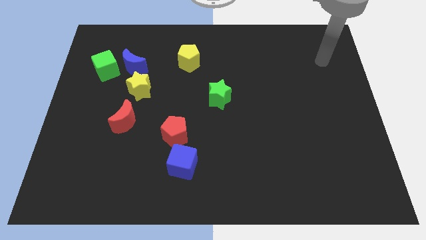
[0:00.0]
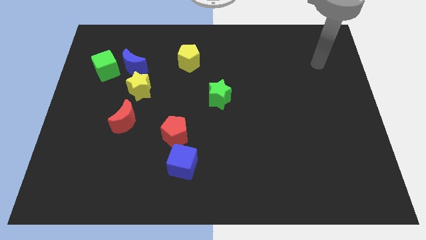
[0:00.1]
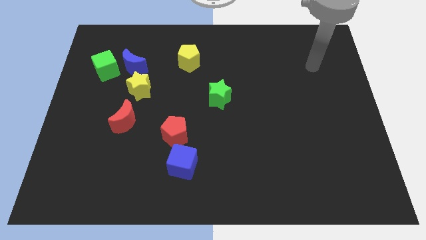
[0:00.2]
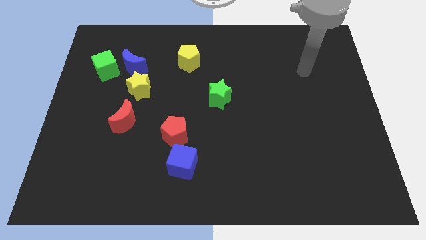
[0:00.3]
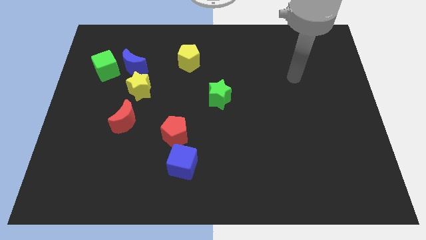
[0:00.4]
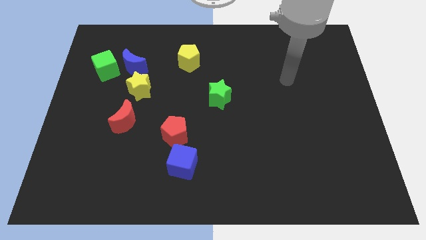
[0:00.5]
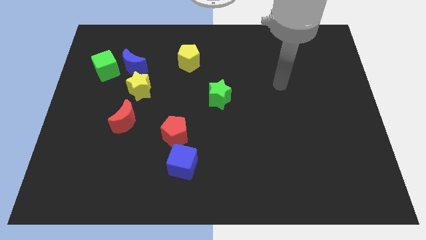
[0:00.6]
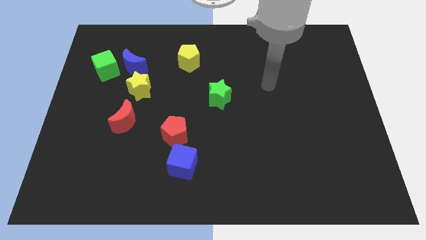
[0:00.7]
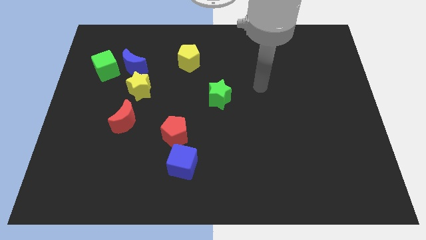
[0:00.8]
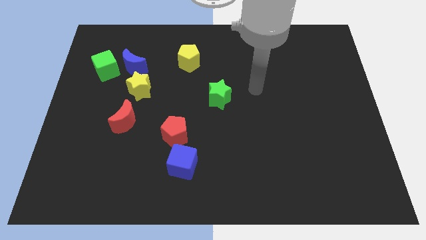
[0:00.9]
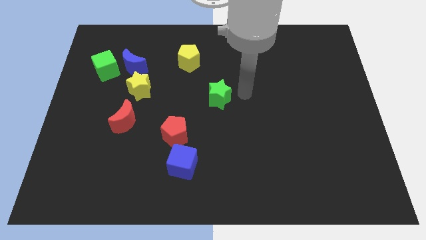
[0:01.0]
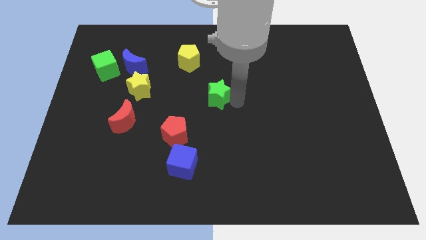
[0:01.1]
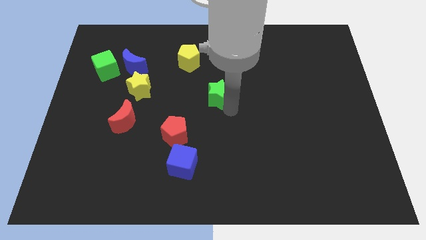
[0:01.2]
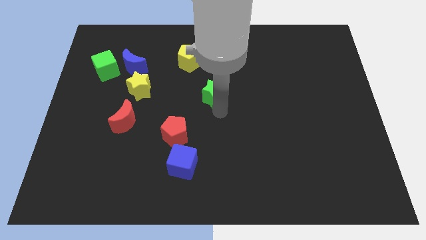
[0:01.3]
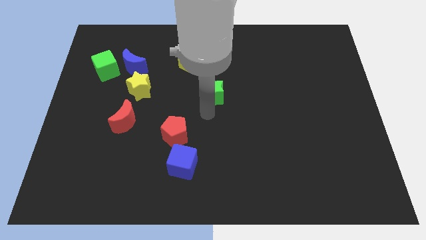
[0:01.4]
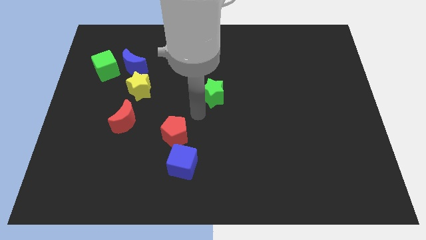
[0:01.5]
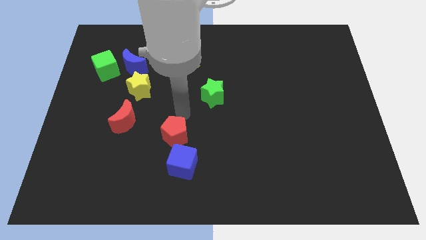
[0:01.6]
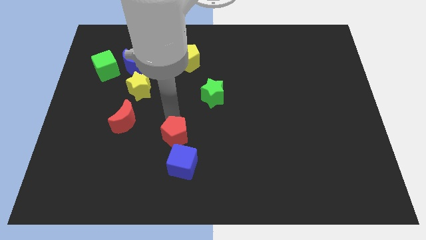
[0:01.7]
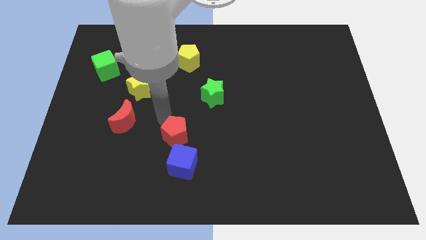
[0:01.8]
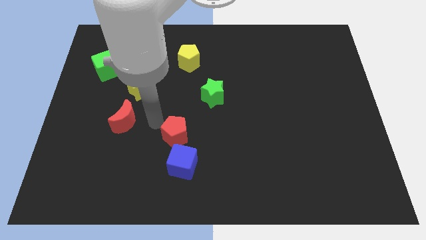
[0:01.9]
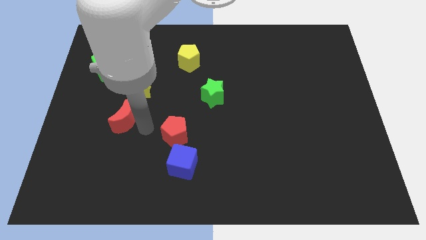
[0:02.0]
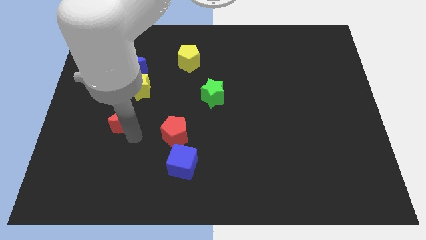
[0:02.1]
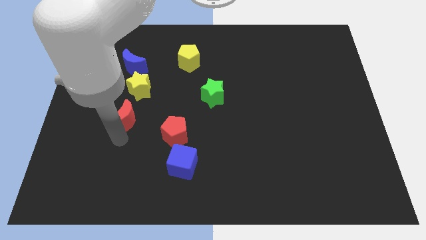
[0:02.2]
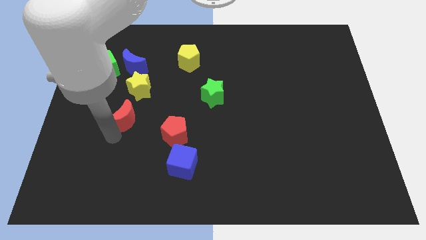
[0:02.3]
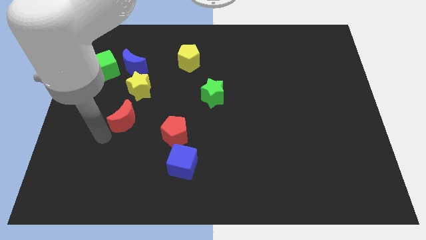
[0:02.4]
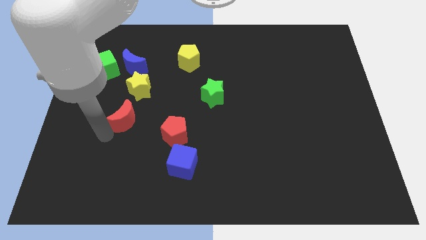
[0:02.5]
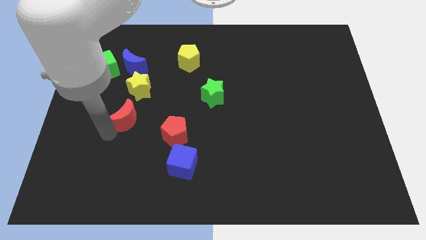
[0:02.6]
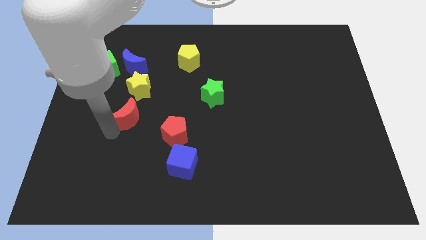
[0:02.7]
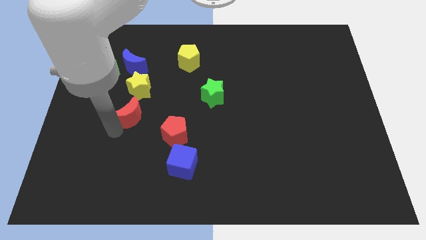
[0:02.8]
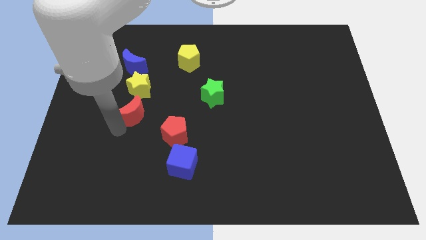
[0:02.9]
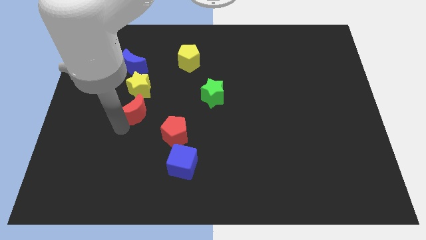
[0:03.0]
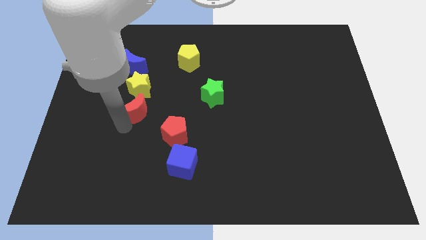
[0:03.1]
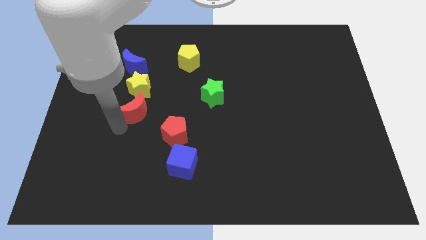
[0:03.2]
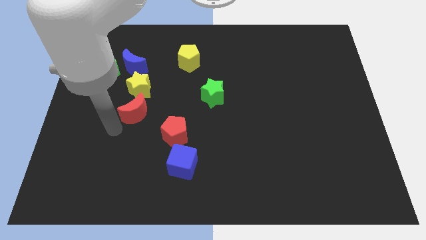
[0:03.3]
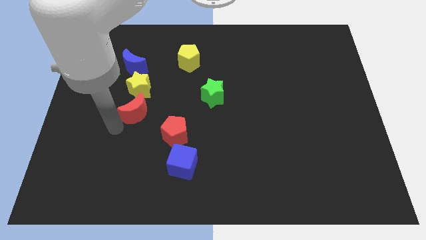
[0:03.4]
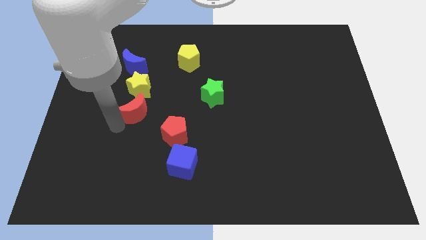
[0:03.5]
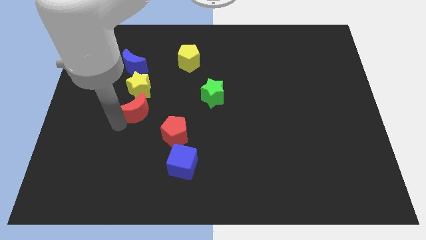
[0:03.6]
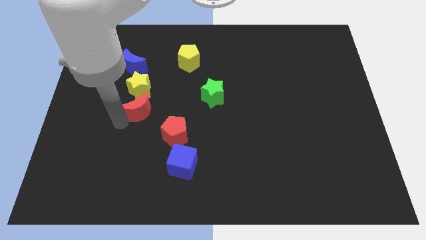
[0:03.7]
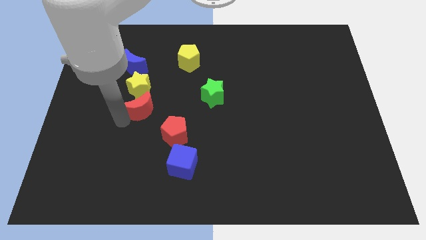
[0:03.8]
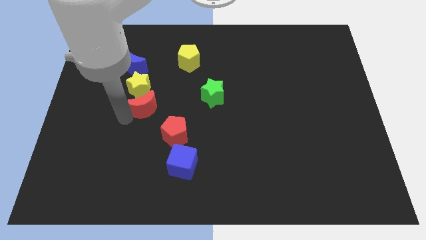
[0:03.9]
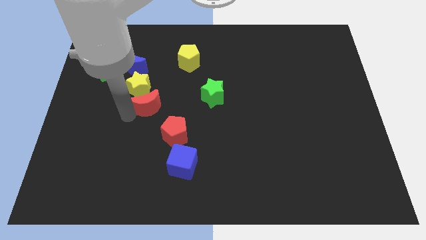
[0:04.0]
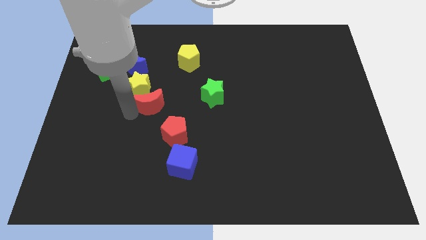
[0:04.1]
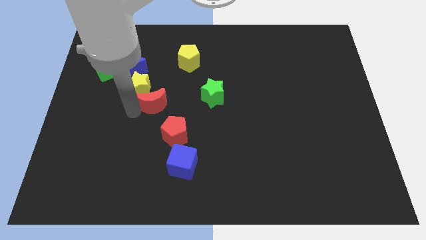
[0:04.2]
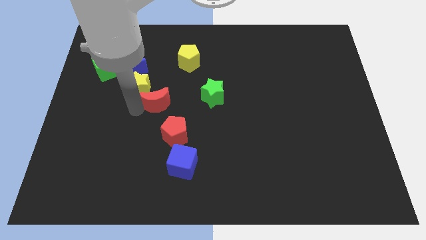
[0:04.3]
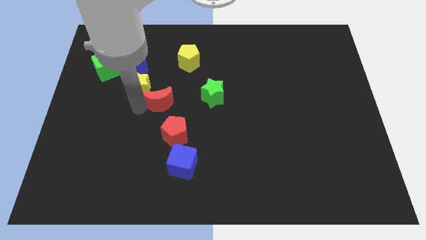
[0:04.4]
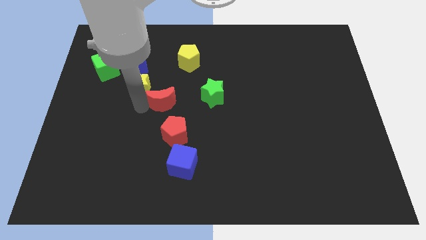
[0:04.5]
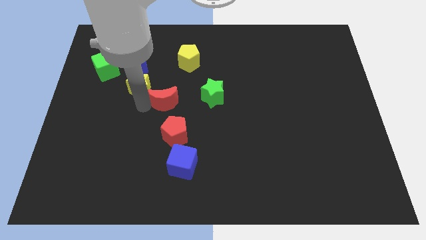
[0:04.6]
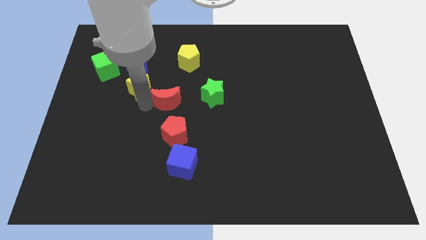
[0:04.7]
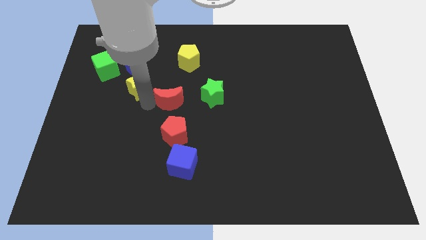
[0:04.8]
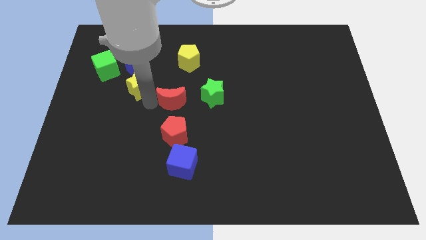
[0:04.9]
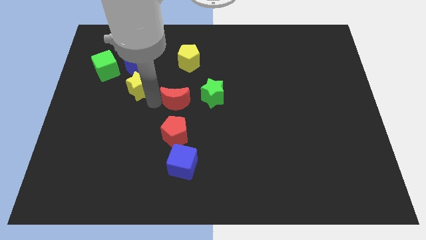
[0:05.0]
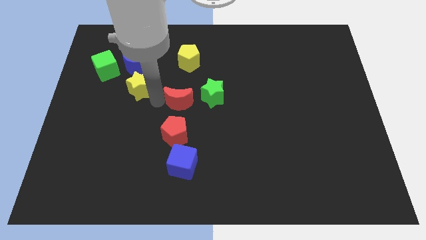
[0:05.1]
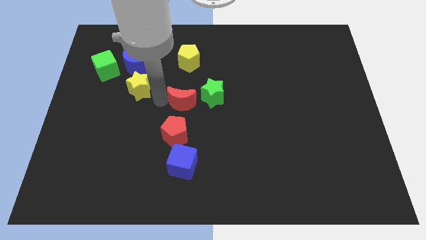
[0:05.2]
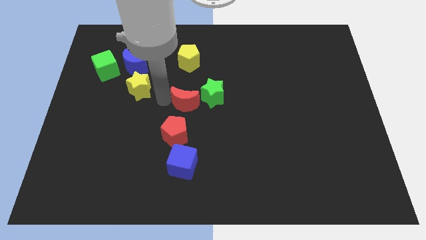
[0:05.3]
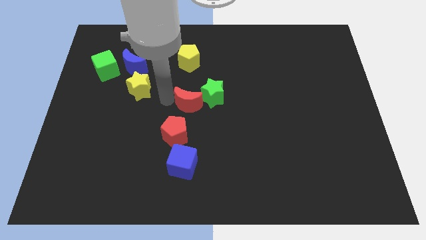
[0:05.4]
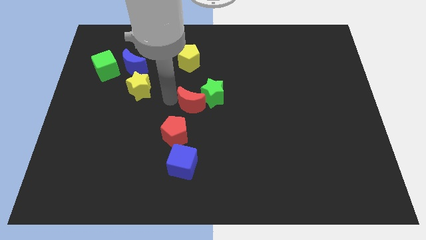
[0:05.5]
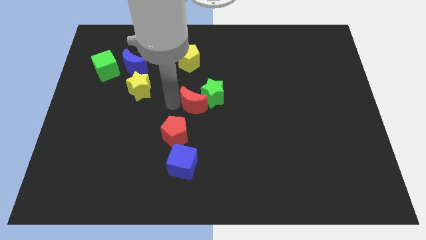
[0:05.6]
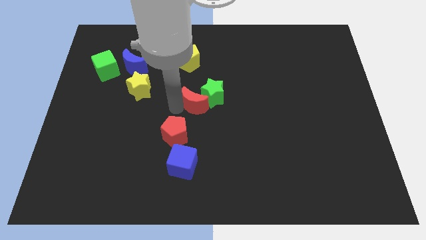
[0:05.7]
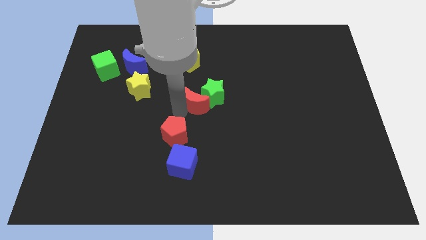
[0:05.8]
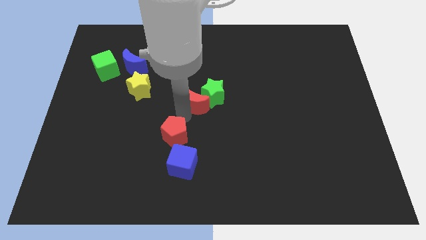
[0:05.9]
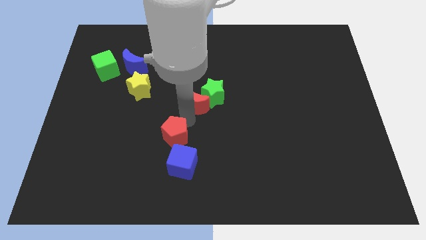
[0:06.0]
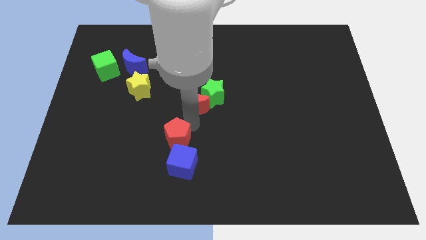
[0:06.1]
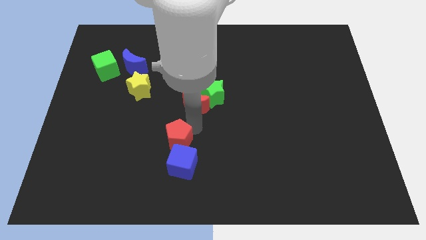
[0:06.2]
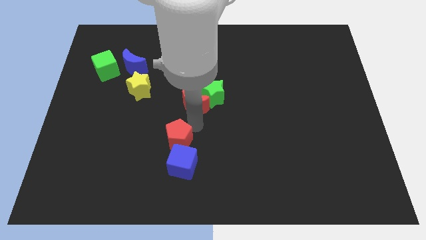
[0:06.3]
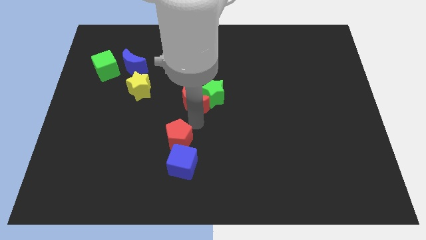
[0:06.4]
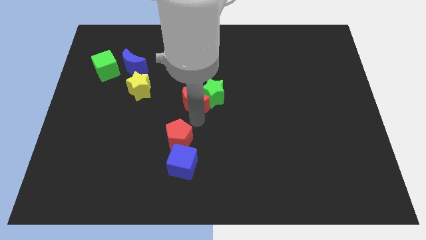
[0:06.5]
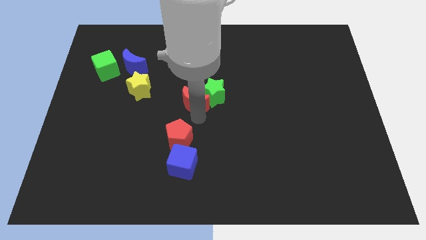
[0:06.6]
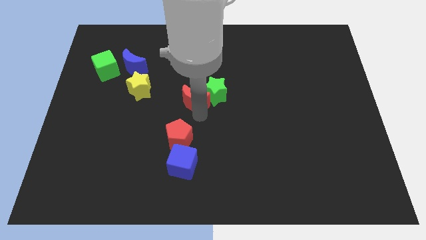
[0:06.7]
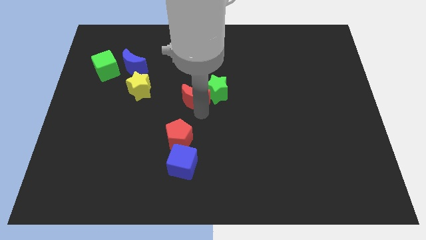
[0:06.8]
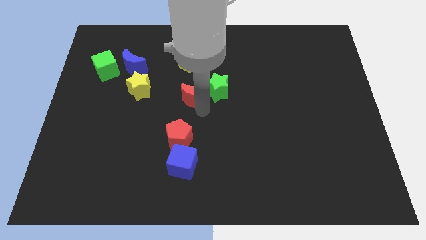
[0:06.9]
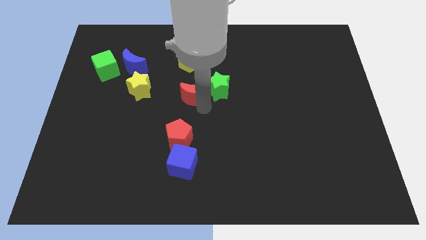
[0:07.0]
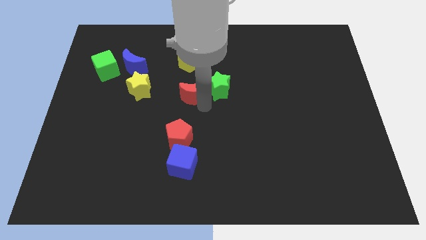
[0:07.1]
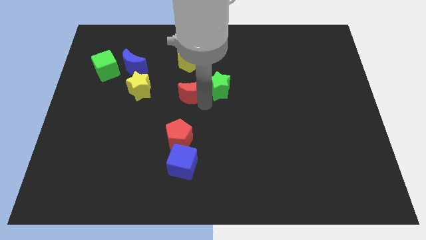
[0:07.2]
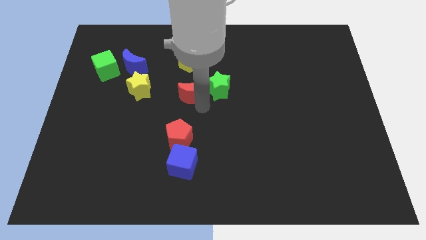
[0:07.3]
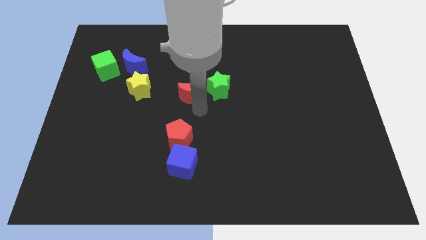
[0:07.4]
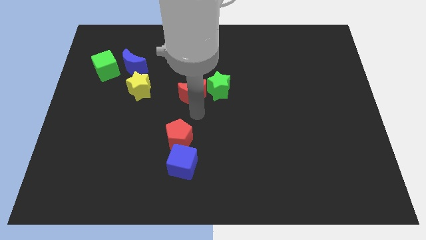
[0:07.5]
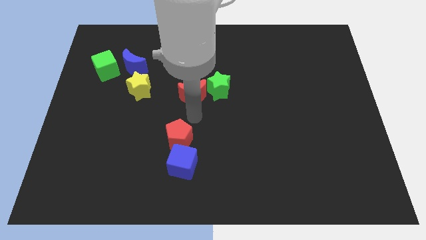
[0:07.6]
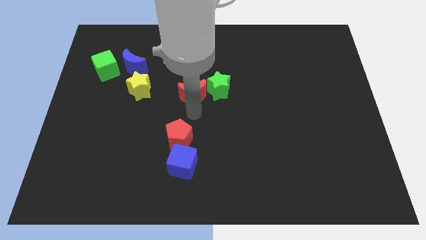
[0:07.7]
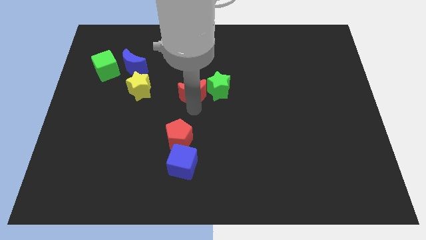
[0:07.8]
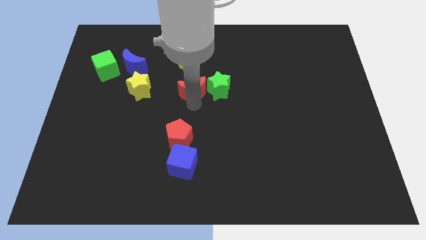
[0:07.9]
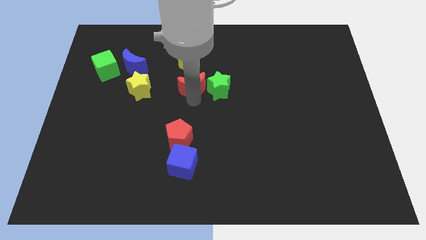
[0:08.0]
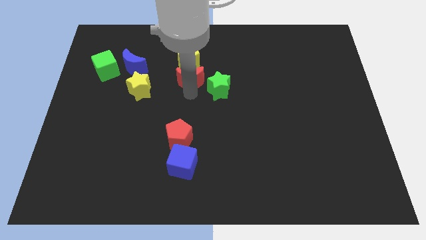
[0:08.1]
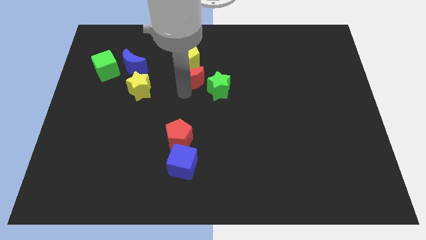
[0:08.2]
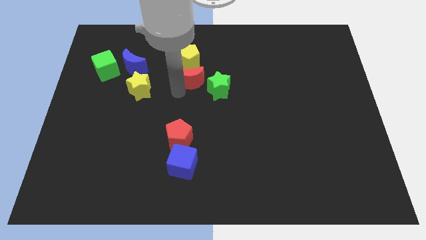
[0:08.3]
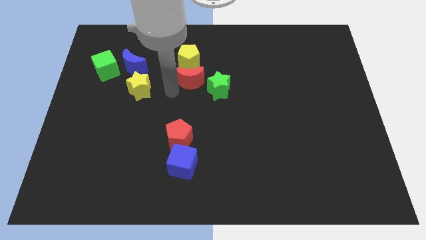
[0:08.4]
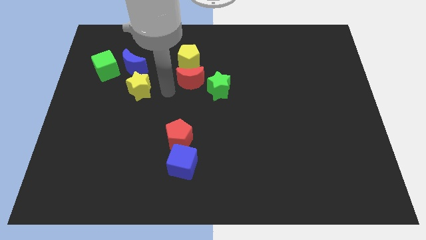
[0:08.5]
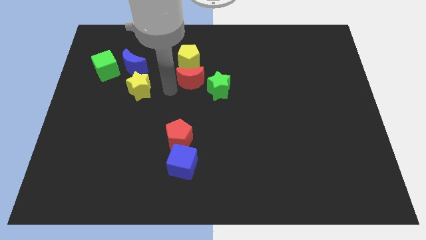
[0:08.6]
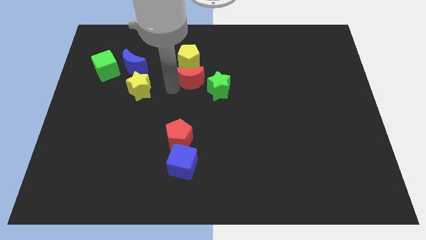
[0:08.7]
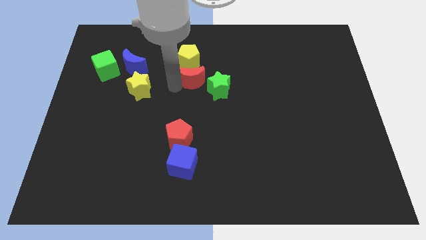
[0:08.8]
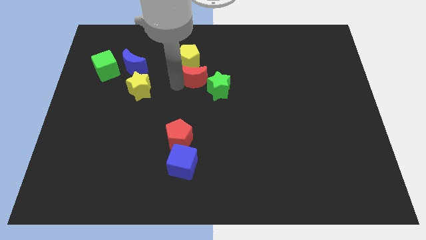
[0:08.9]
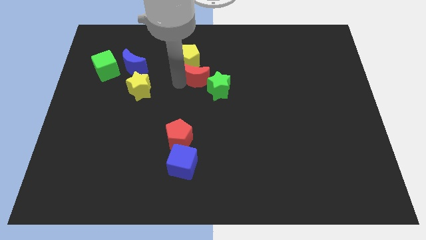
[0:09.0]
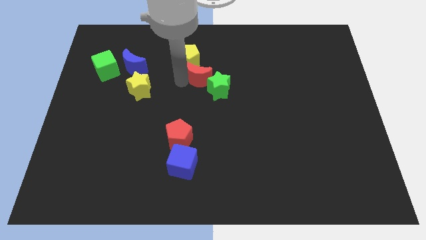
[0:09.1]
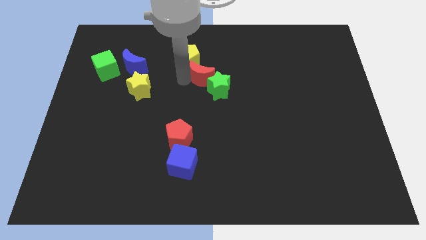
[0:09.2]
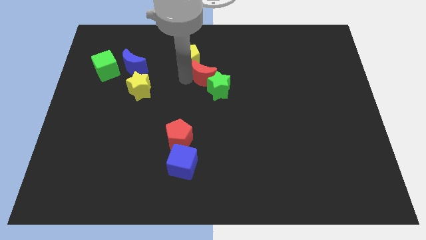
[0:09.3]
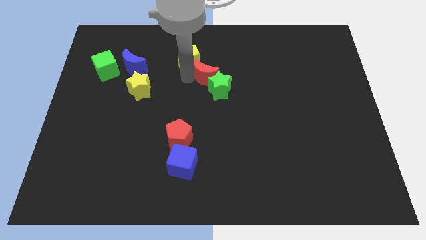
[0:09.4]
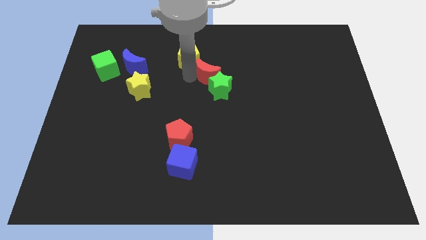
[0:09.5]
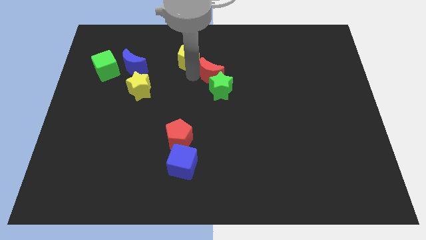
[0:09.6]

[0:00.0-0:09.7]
slide the red moon to the right side of the yellow pentagon
